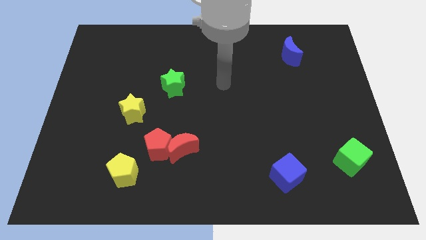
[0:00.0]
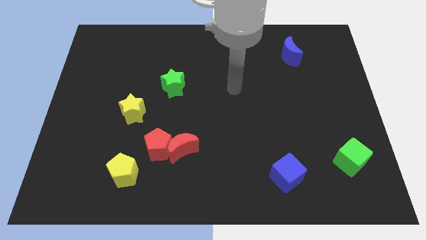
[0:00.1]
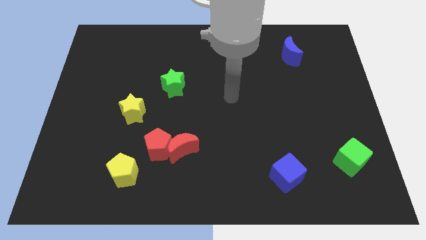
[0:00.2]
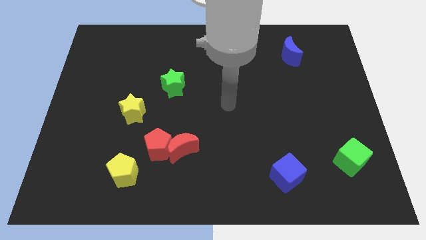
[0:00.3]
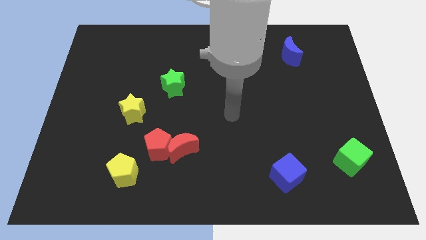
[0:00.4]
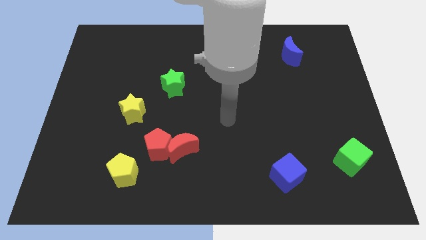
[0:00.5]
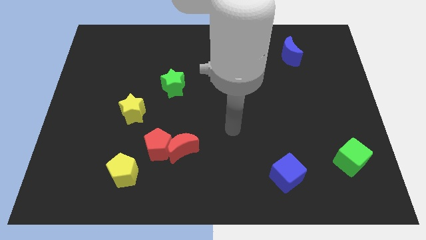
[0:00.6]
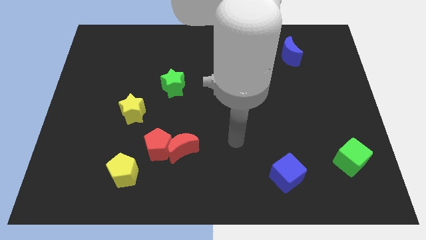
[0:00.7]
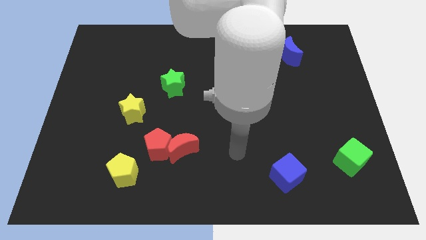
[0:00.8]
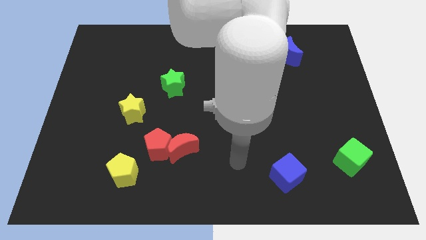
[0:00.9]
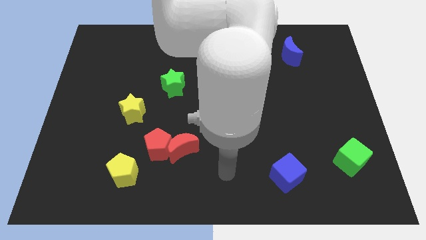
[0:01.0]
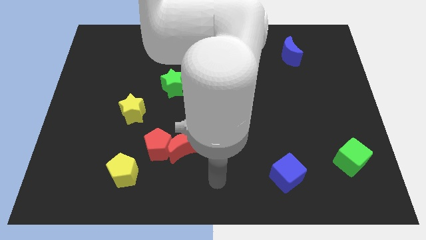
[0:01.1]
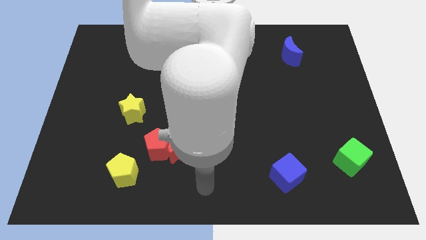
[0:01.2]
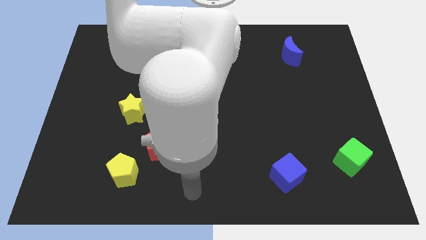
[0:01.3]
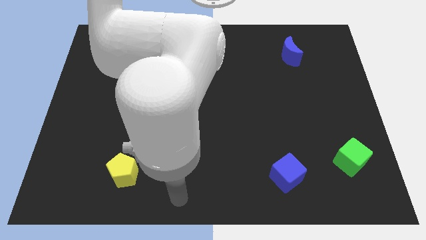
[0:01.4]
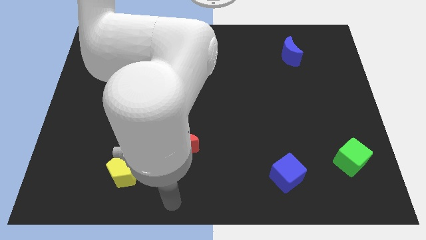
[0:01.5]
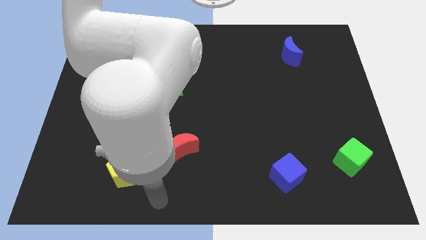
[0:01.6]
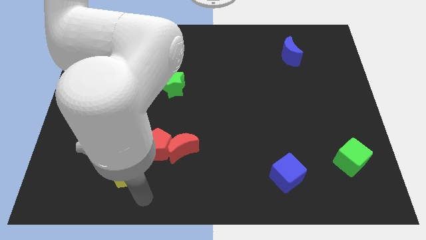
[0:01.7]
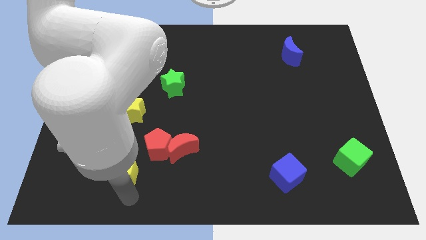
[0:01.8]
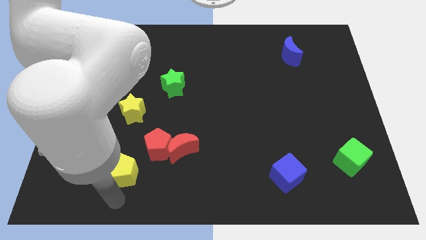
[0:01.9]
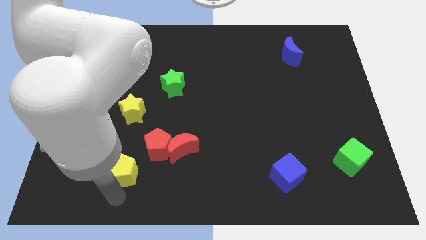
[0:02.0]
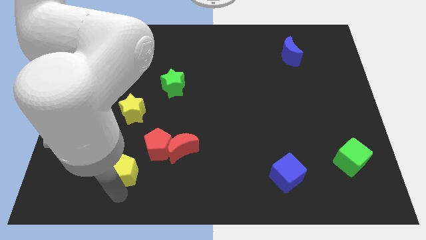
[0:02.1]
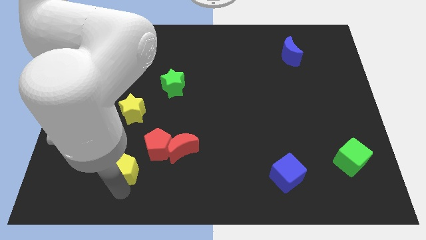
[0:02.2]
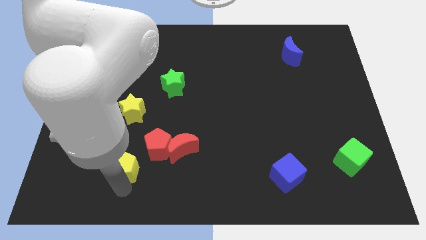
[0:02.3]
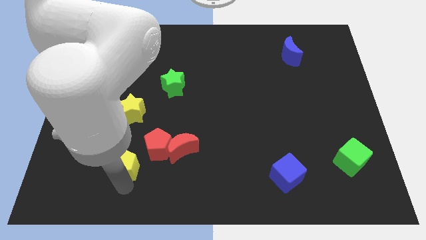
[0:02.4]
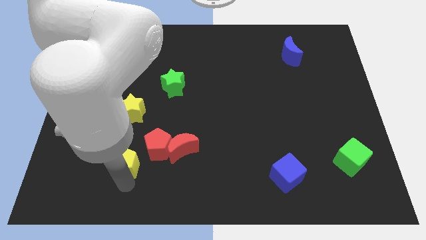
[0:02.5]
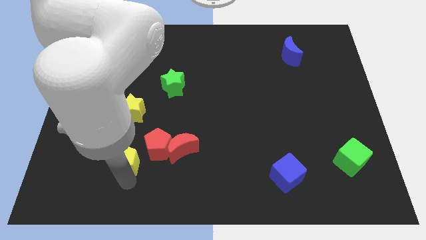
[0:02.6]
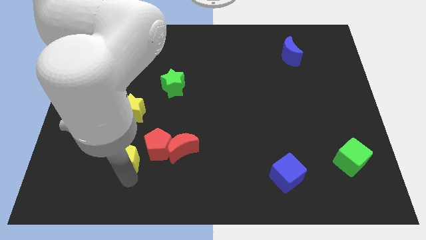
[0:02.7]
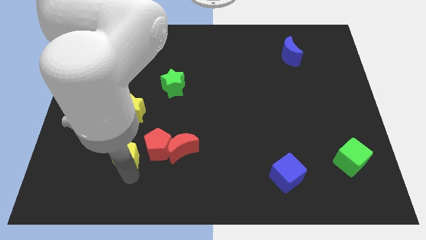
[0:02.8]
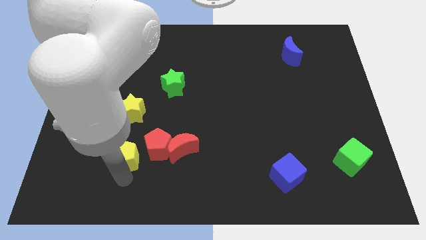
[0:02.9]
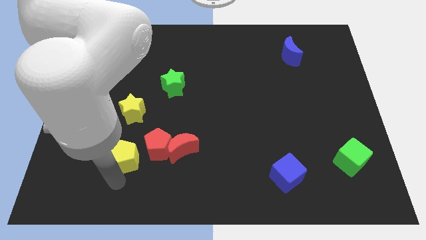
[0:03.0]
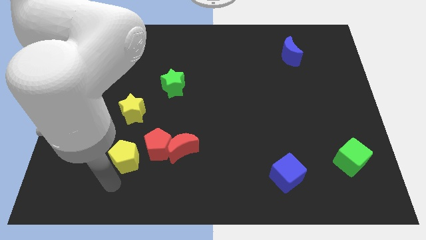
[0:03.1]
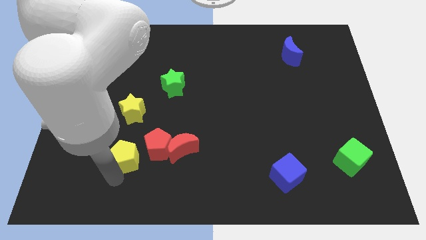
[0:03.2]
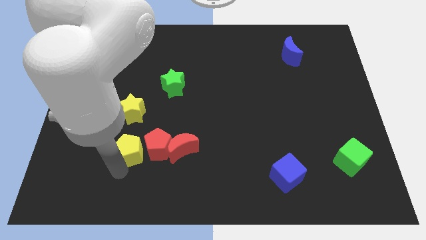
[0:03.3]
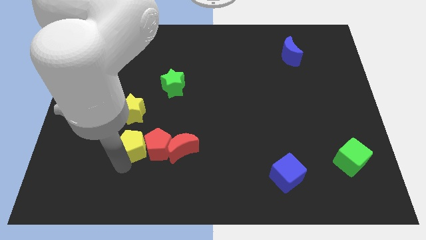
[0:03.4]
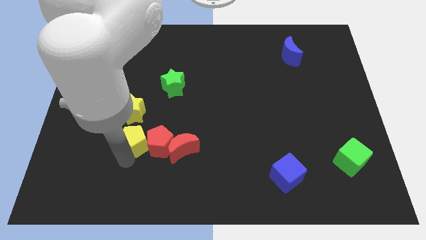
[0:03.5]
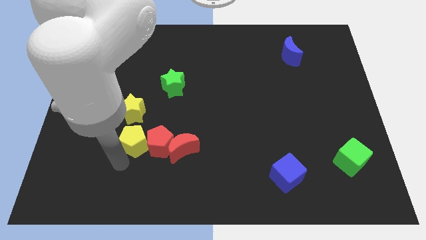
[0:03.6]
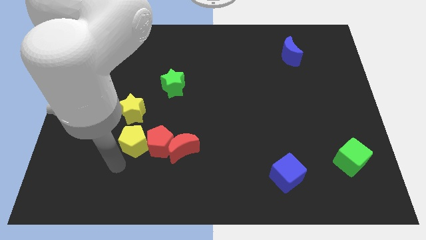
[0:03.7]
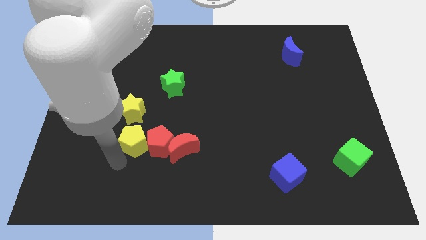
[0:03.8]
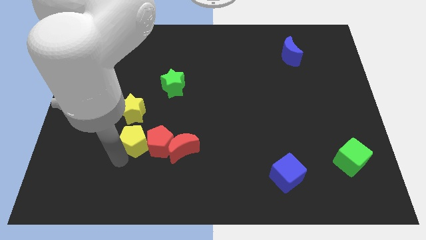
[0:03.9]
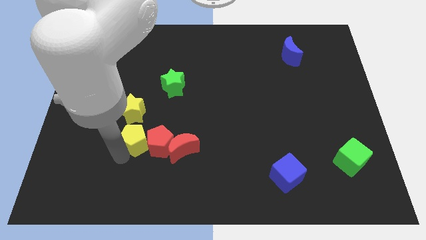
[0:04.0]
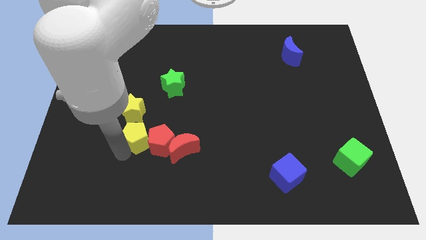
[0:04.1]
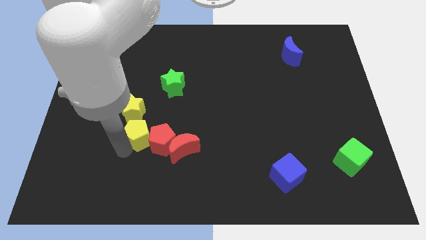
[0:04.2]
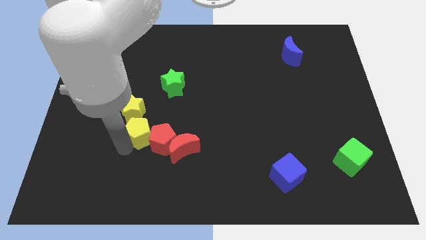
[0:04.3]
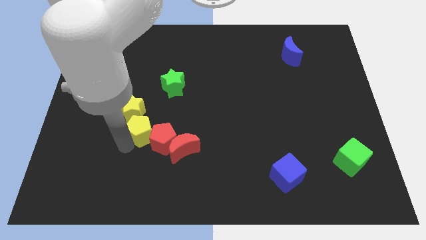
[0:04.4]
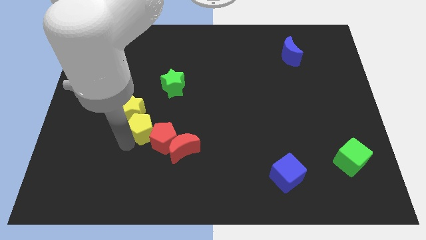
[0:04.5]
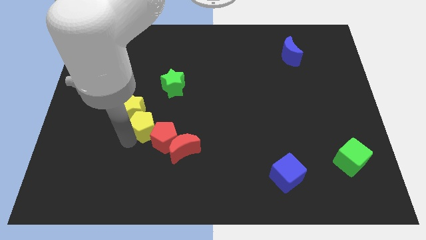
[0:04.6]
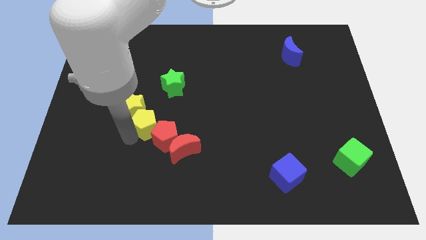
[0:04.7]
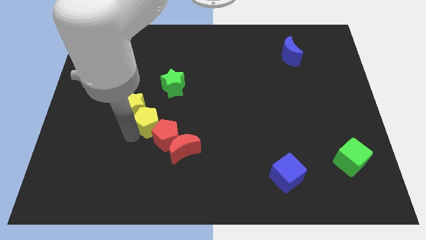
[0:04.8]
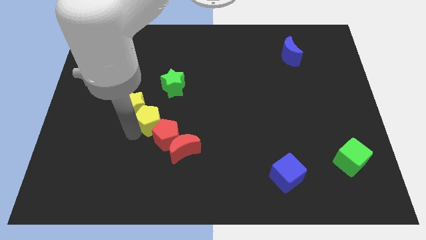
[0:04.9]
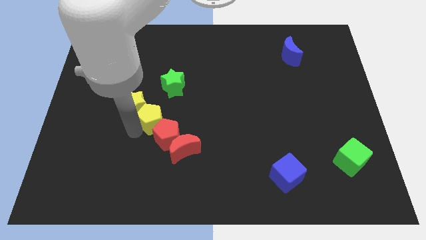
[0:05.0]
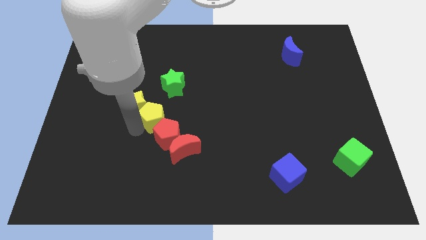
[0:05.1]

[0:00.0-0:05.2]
push the yellow pentagon to the bottom left of the green star

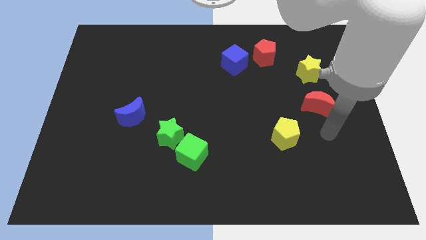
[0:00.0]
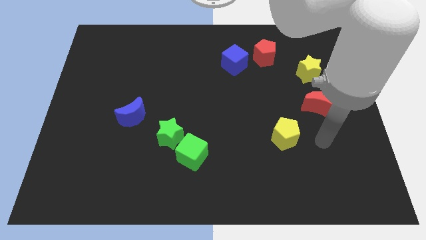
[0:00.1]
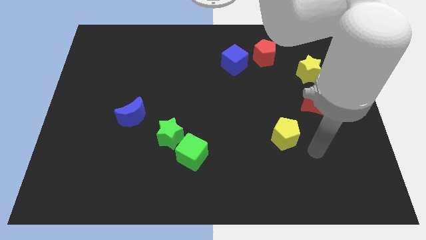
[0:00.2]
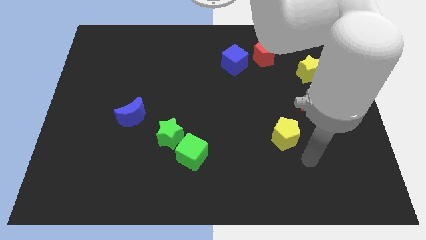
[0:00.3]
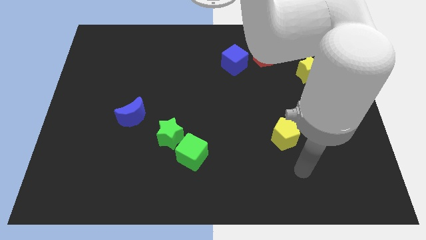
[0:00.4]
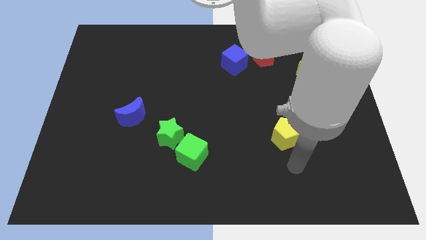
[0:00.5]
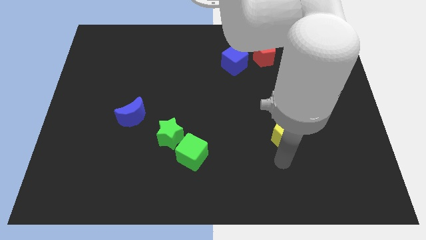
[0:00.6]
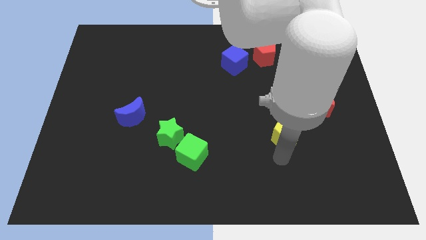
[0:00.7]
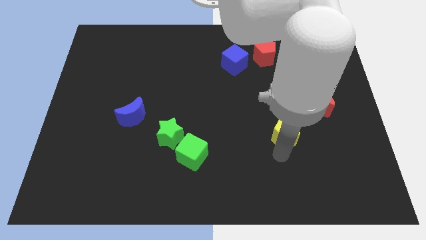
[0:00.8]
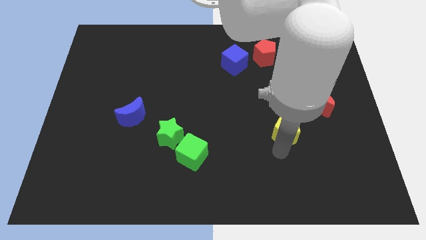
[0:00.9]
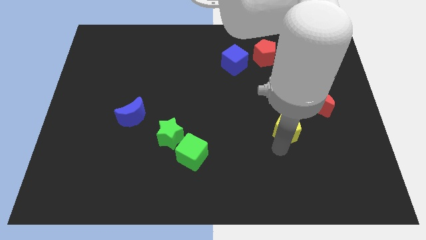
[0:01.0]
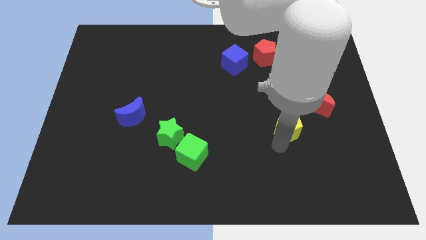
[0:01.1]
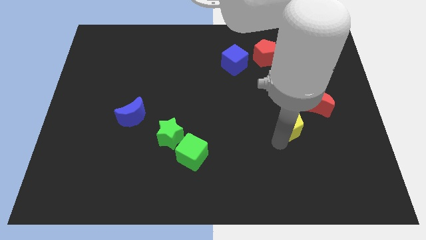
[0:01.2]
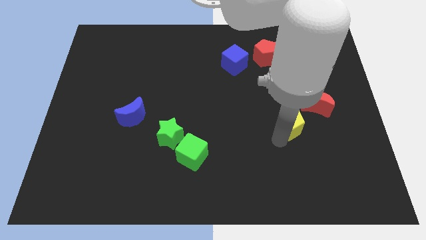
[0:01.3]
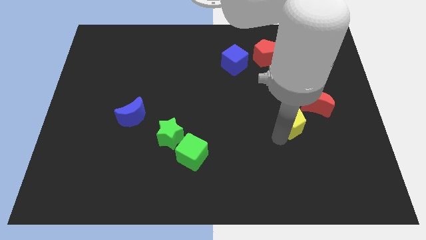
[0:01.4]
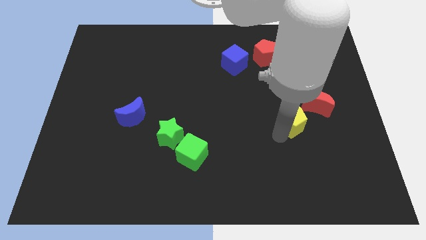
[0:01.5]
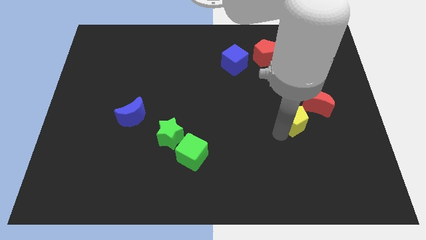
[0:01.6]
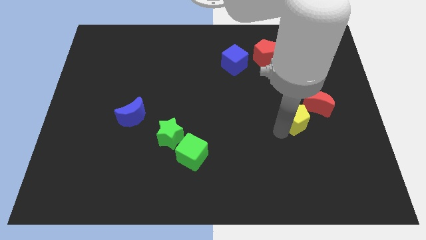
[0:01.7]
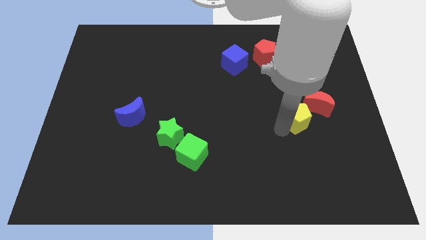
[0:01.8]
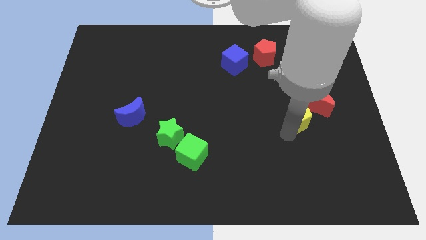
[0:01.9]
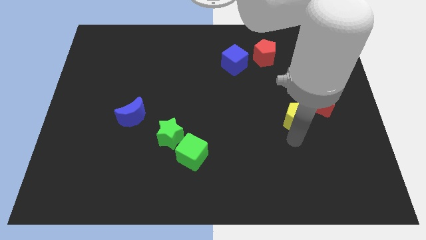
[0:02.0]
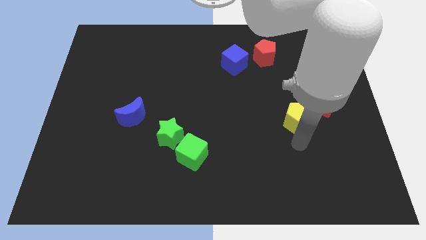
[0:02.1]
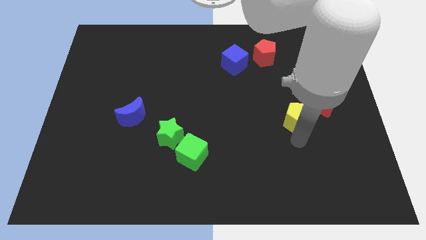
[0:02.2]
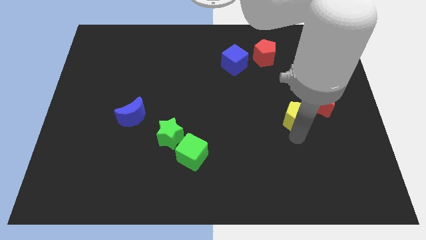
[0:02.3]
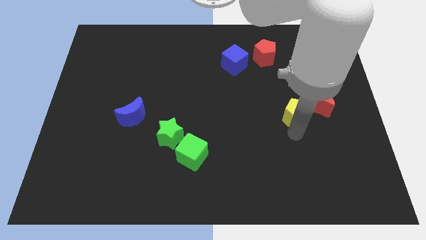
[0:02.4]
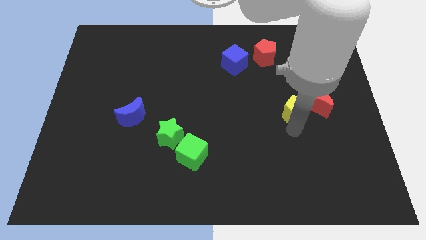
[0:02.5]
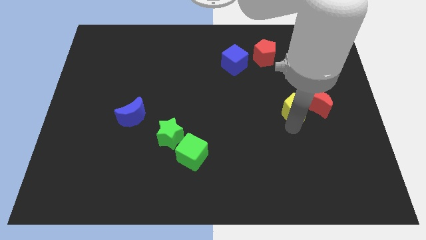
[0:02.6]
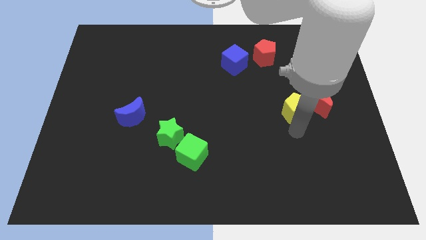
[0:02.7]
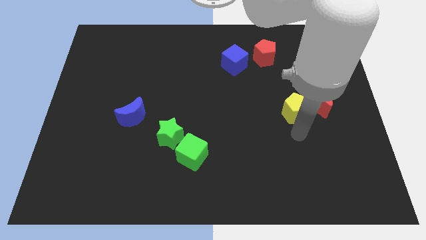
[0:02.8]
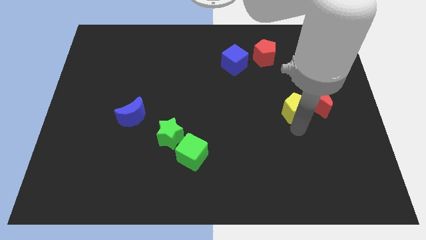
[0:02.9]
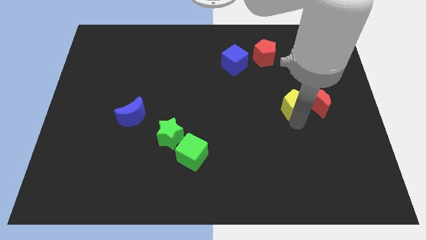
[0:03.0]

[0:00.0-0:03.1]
push the yellow pentagon to the top left side of the red moon
